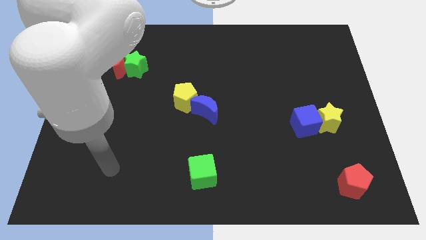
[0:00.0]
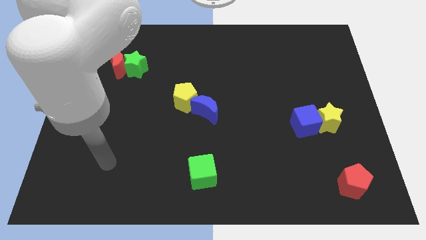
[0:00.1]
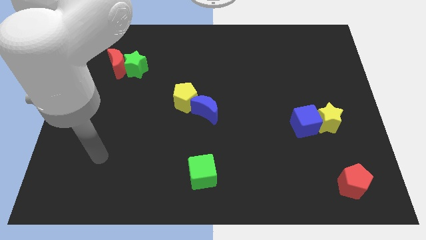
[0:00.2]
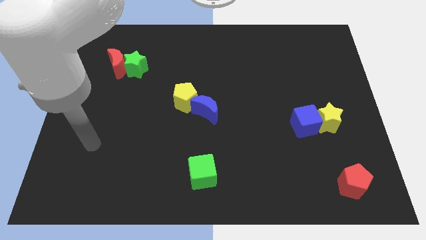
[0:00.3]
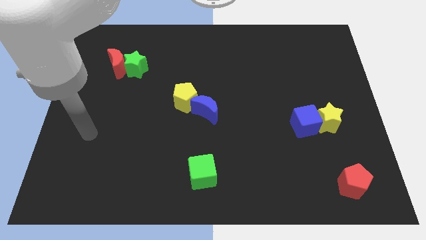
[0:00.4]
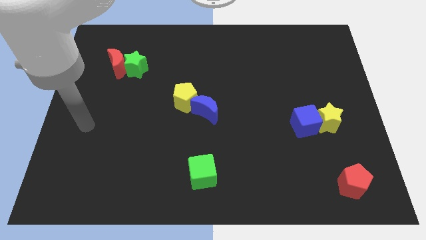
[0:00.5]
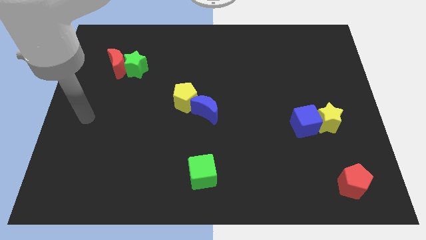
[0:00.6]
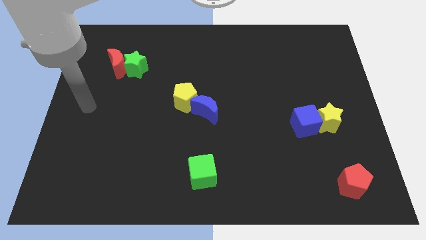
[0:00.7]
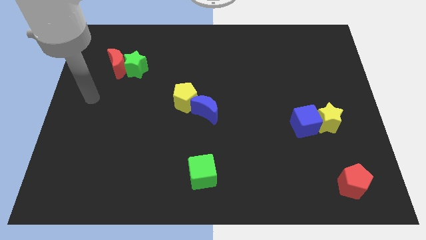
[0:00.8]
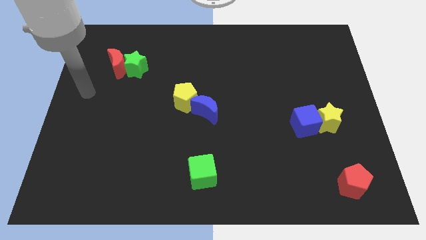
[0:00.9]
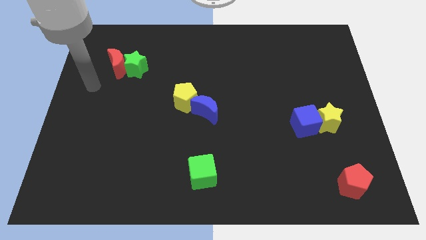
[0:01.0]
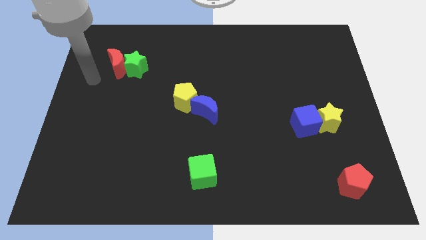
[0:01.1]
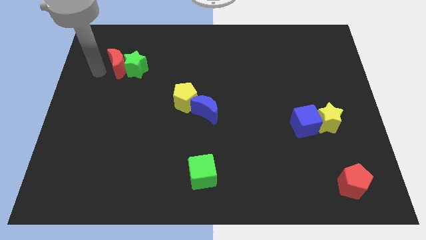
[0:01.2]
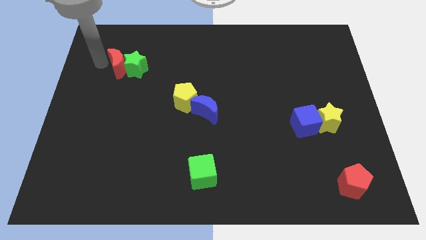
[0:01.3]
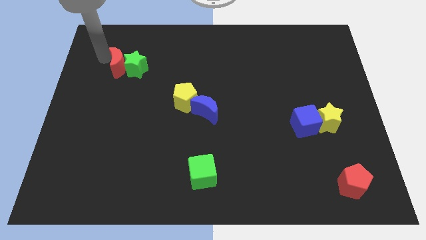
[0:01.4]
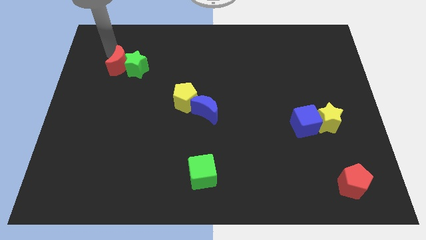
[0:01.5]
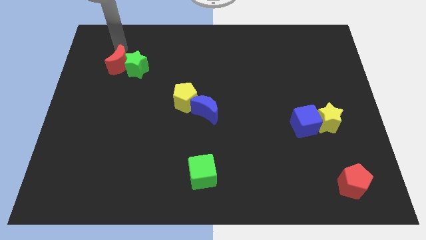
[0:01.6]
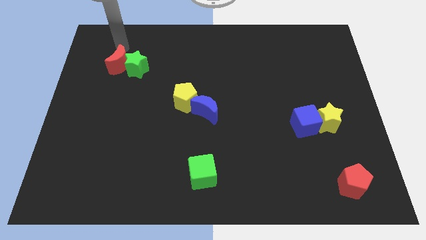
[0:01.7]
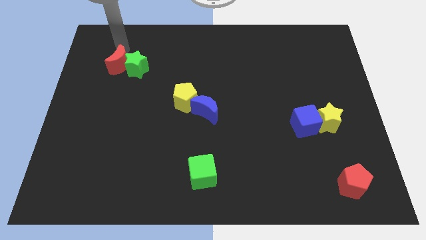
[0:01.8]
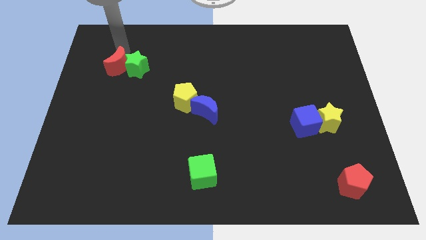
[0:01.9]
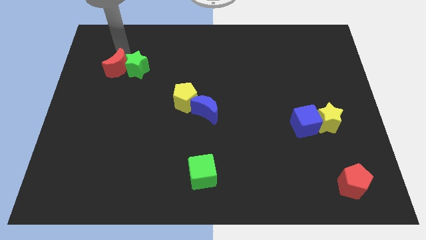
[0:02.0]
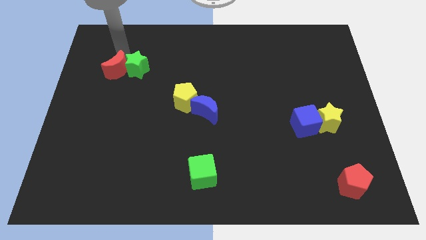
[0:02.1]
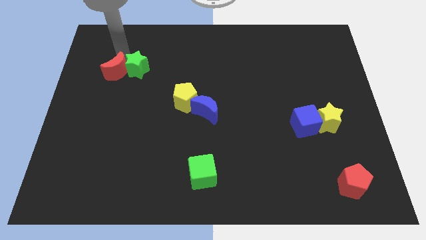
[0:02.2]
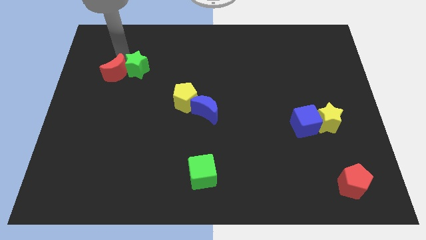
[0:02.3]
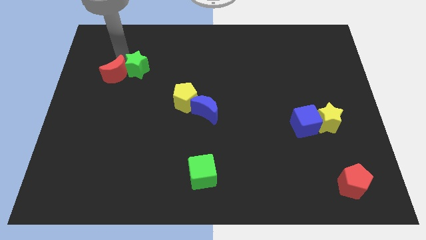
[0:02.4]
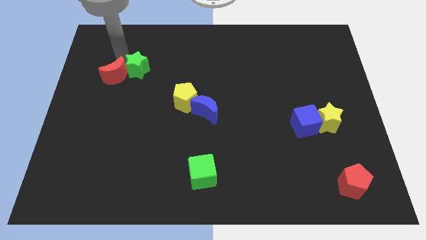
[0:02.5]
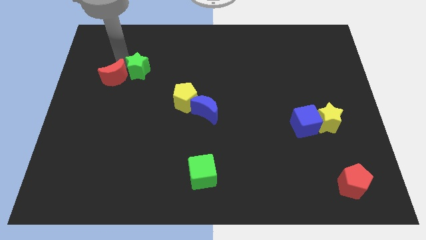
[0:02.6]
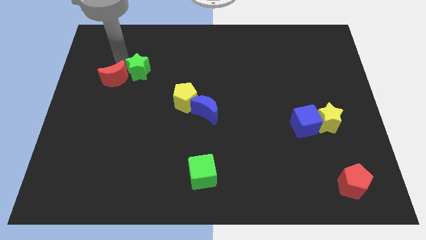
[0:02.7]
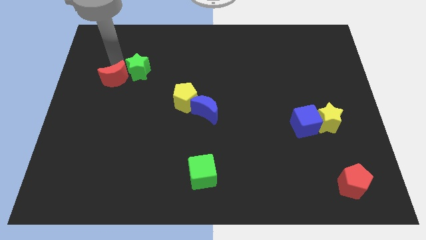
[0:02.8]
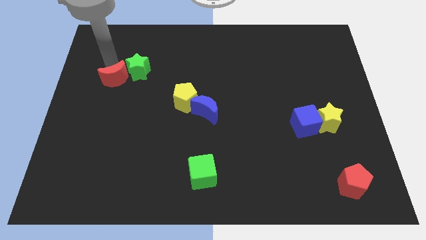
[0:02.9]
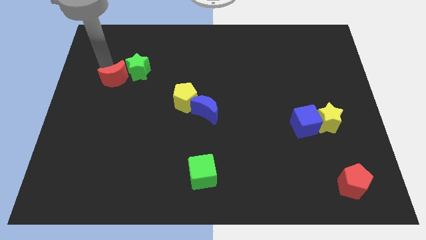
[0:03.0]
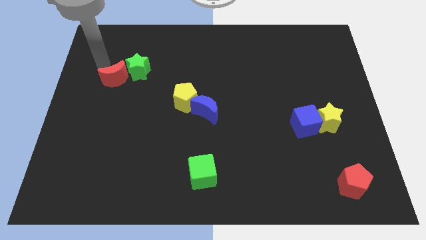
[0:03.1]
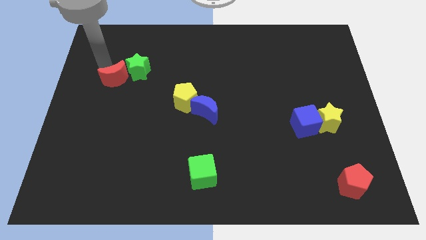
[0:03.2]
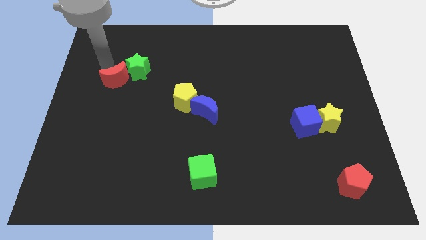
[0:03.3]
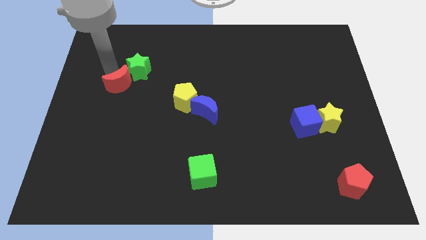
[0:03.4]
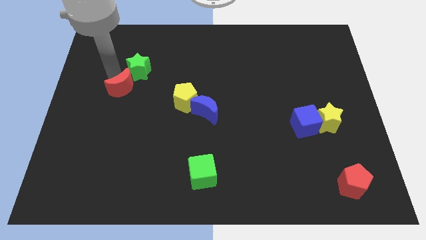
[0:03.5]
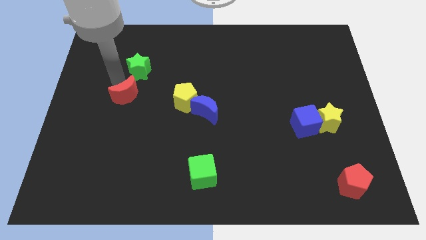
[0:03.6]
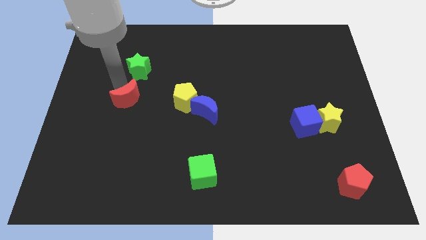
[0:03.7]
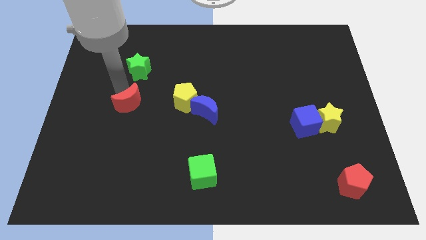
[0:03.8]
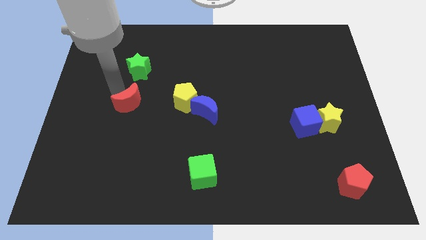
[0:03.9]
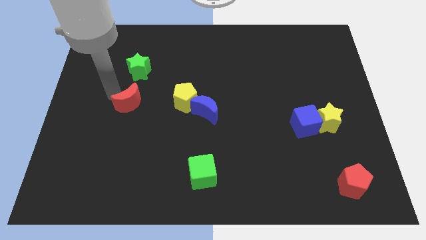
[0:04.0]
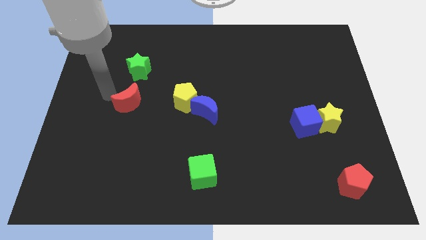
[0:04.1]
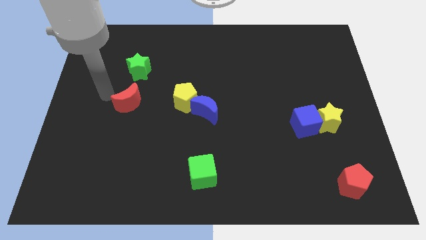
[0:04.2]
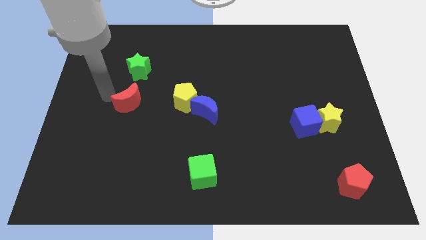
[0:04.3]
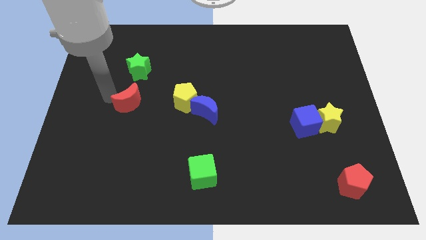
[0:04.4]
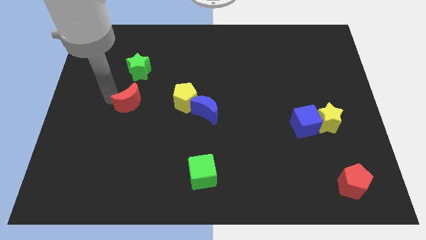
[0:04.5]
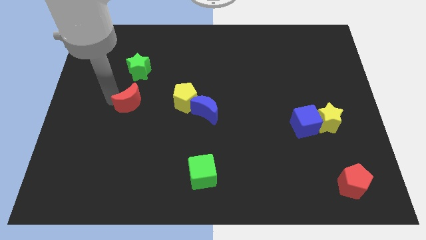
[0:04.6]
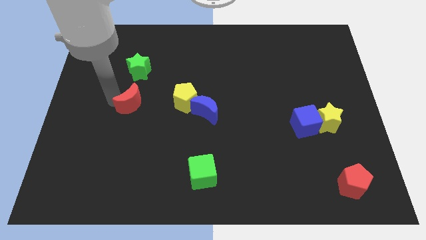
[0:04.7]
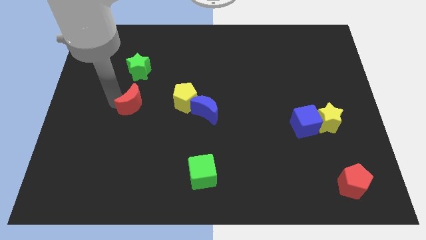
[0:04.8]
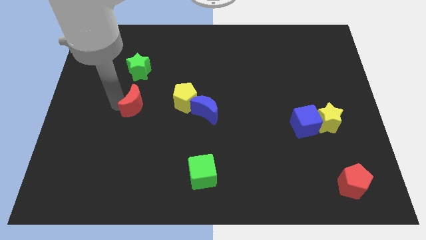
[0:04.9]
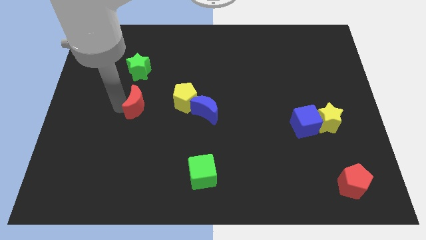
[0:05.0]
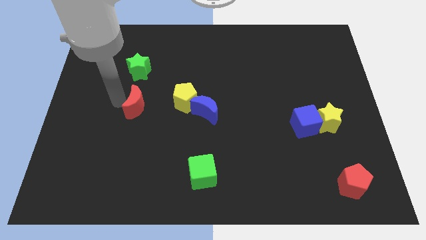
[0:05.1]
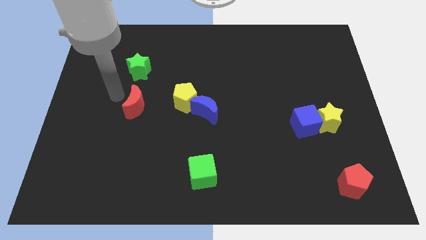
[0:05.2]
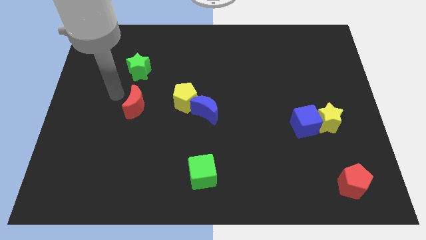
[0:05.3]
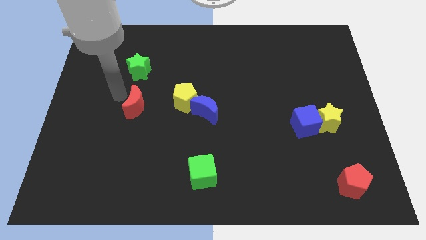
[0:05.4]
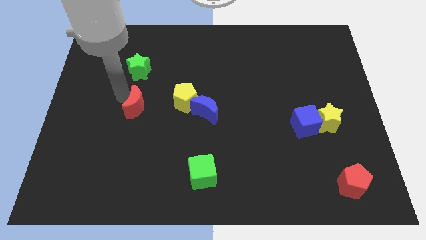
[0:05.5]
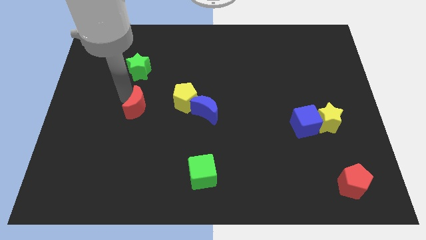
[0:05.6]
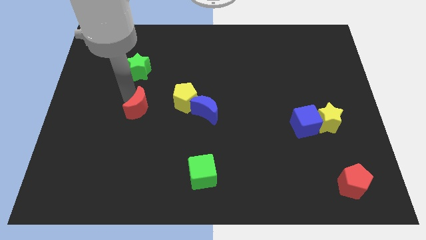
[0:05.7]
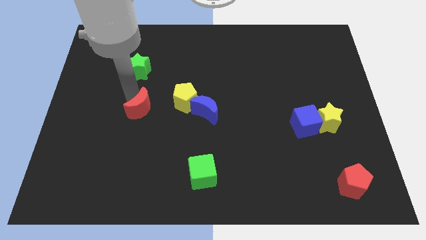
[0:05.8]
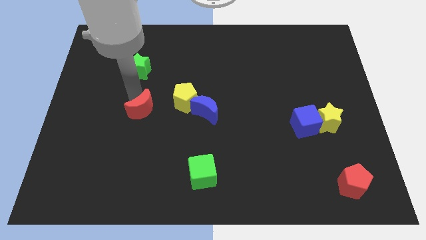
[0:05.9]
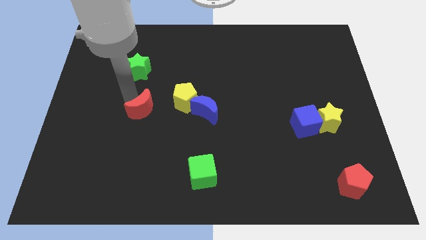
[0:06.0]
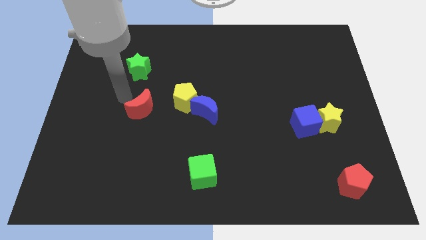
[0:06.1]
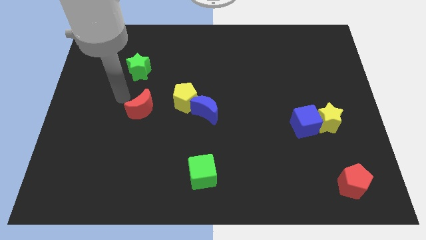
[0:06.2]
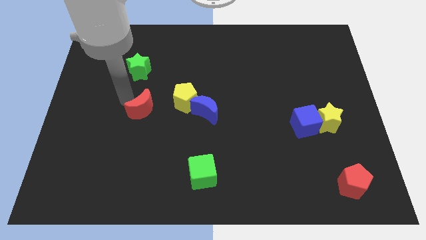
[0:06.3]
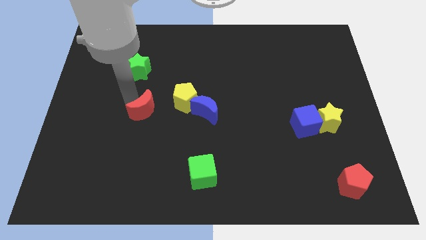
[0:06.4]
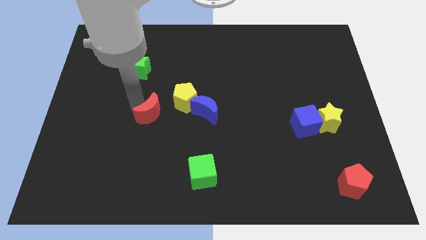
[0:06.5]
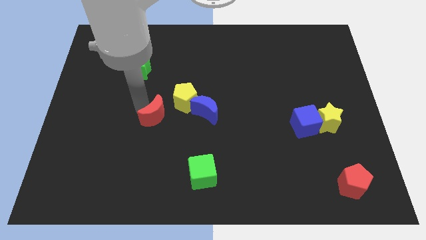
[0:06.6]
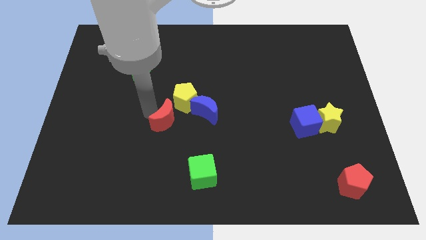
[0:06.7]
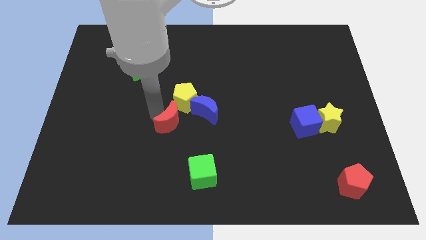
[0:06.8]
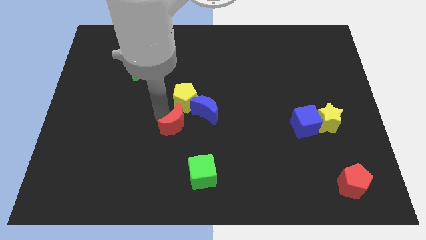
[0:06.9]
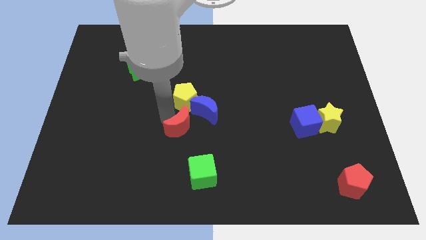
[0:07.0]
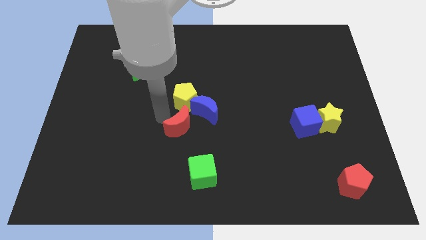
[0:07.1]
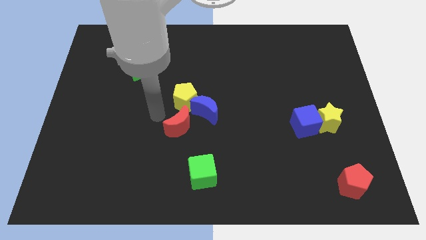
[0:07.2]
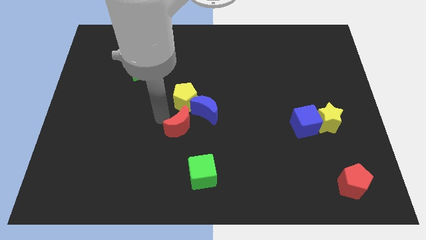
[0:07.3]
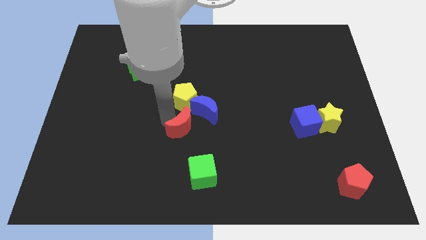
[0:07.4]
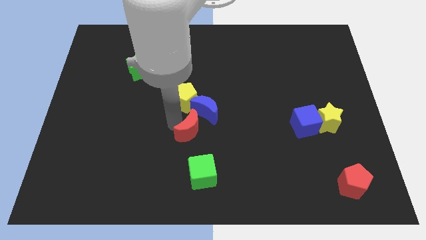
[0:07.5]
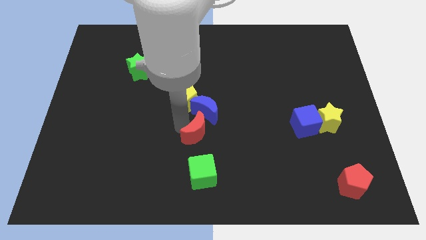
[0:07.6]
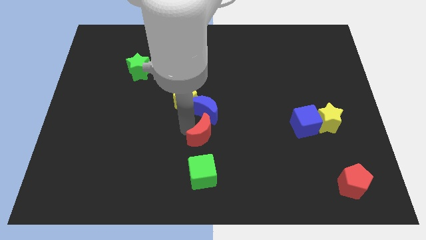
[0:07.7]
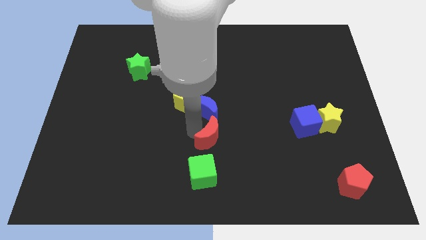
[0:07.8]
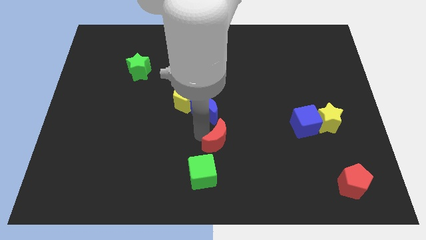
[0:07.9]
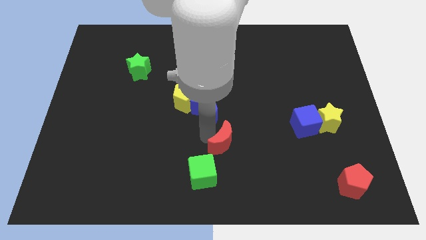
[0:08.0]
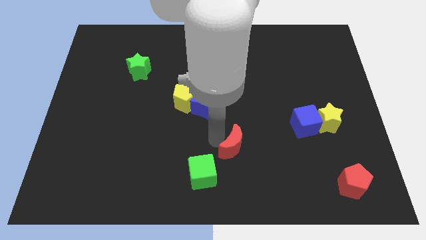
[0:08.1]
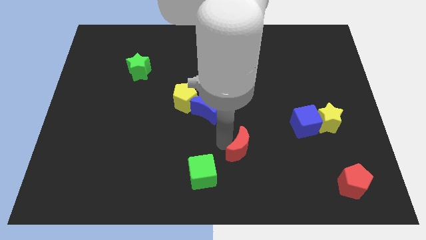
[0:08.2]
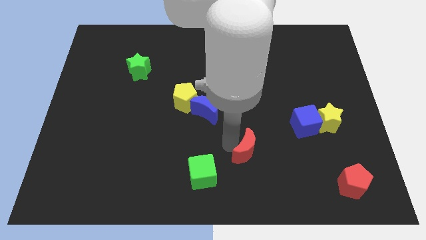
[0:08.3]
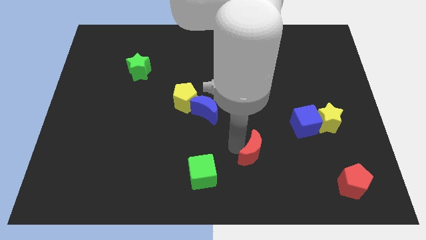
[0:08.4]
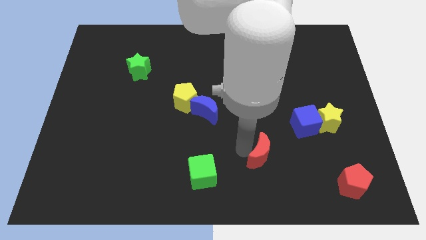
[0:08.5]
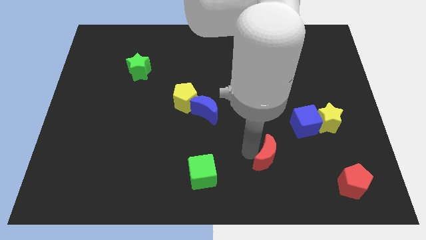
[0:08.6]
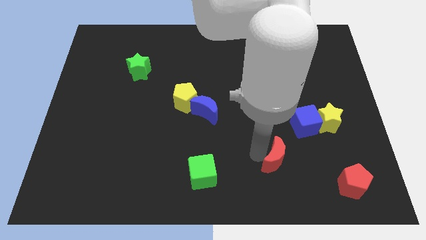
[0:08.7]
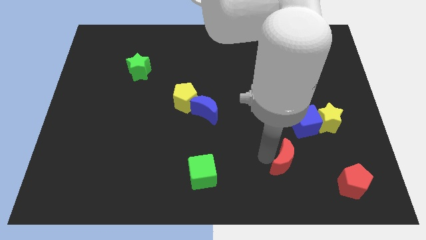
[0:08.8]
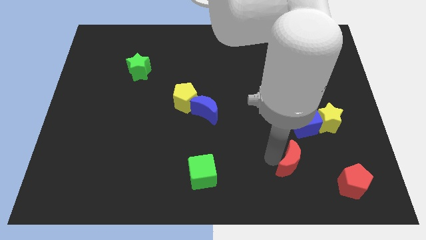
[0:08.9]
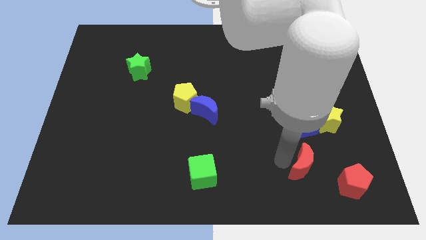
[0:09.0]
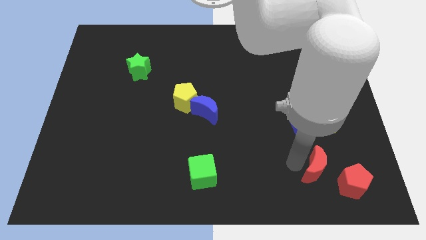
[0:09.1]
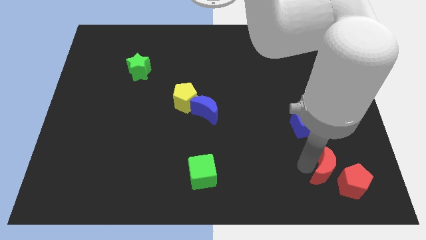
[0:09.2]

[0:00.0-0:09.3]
slide the red moon towards the red pentagon
